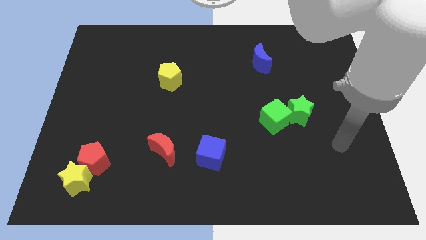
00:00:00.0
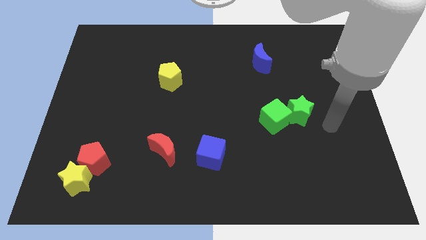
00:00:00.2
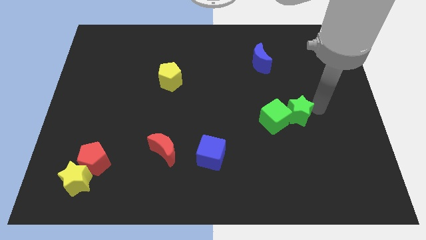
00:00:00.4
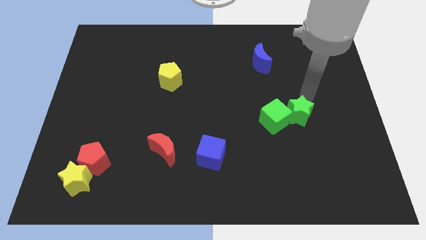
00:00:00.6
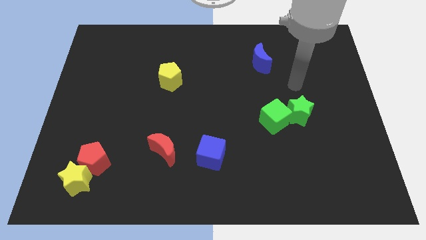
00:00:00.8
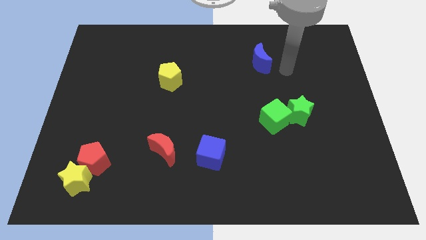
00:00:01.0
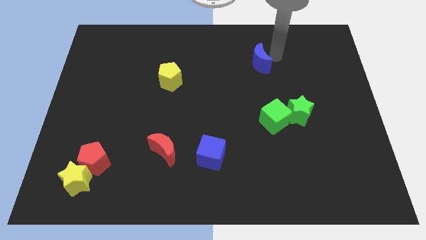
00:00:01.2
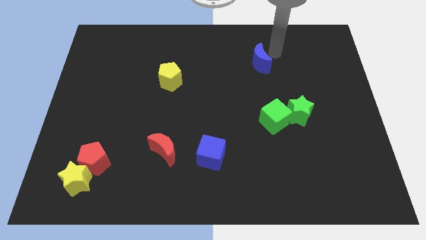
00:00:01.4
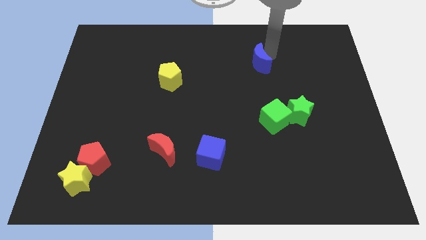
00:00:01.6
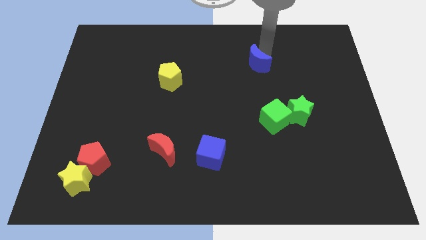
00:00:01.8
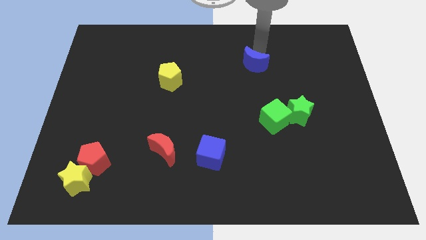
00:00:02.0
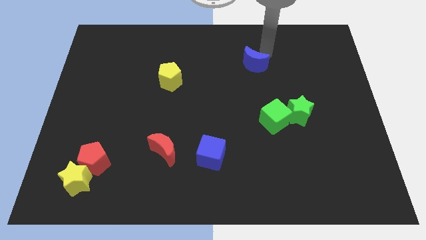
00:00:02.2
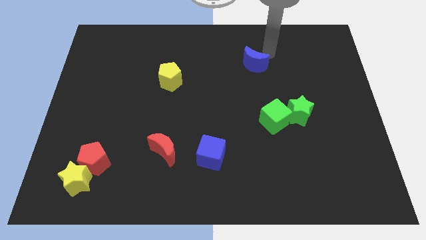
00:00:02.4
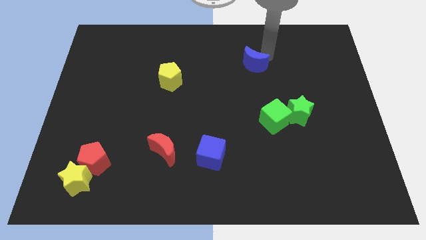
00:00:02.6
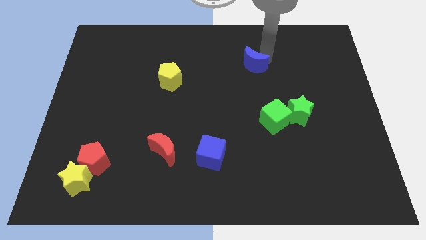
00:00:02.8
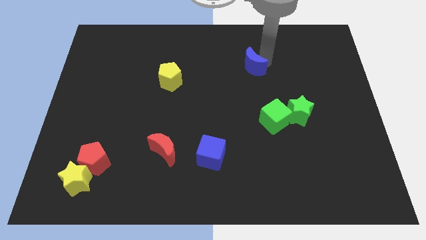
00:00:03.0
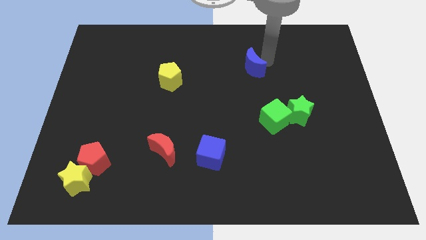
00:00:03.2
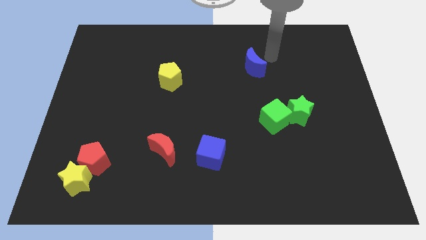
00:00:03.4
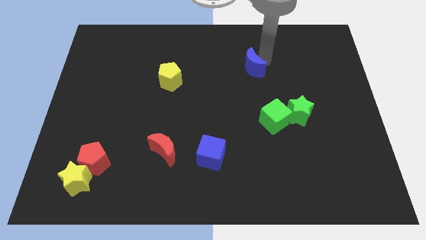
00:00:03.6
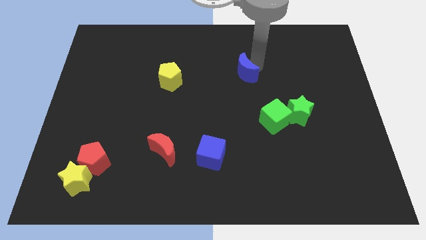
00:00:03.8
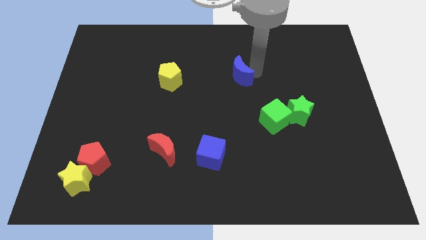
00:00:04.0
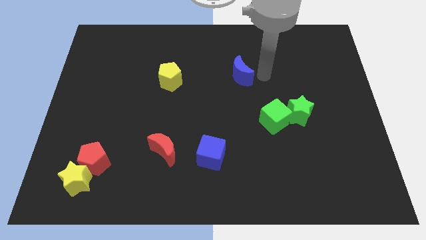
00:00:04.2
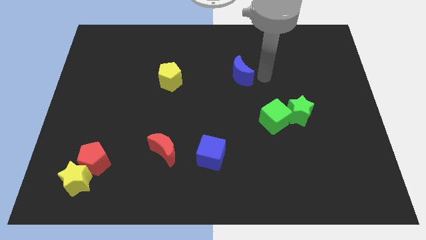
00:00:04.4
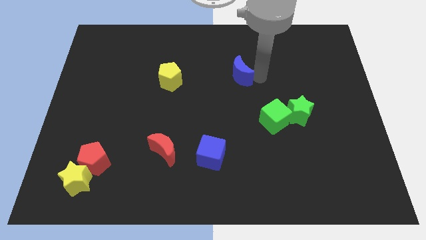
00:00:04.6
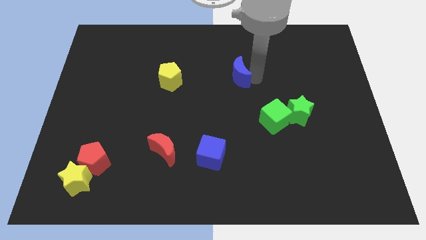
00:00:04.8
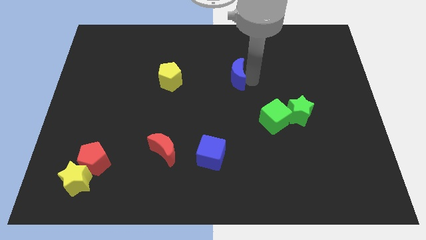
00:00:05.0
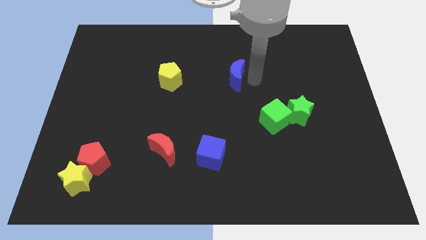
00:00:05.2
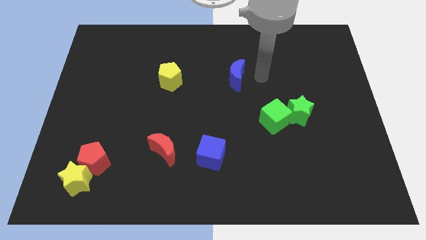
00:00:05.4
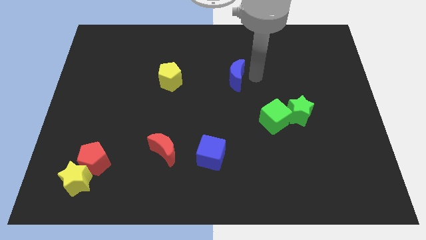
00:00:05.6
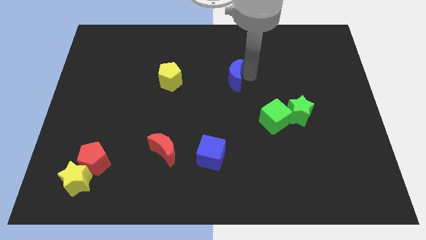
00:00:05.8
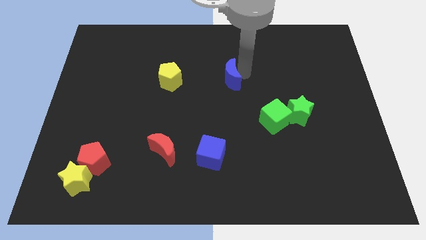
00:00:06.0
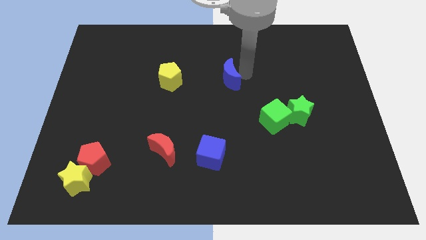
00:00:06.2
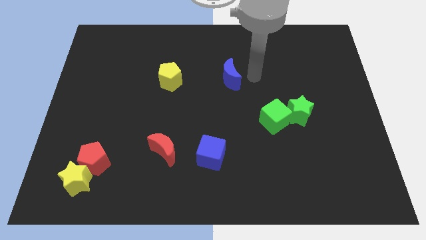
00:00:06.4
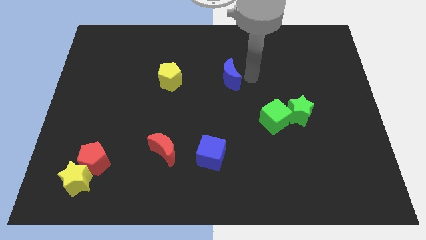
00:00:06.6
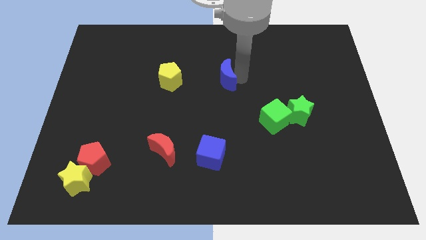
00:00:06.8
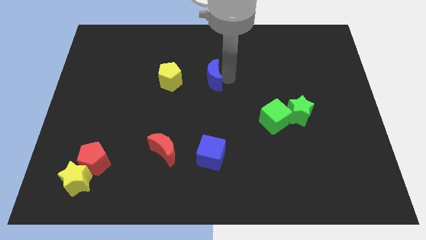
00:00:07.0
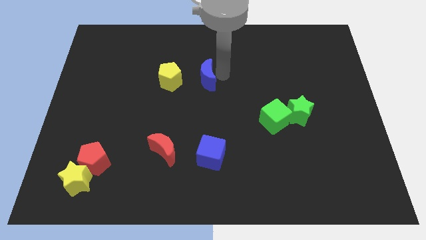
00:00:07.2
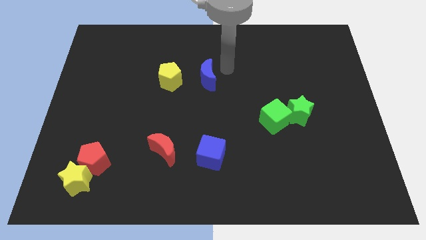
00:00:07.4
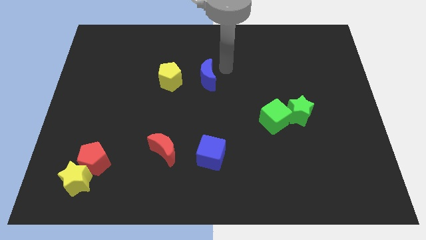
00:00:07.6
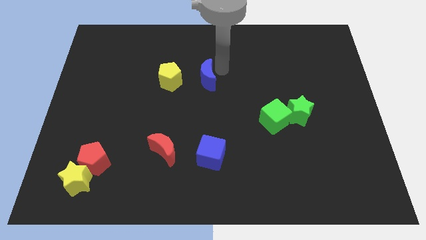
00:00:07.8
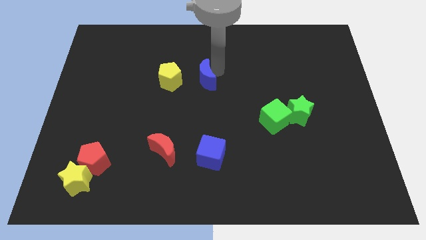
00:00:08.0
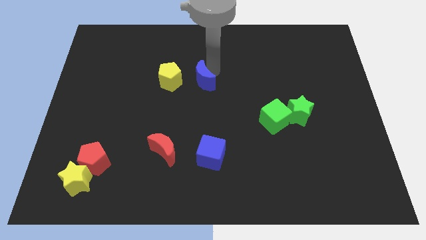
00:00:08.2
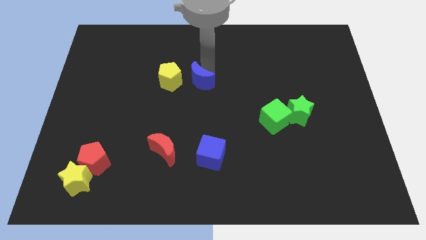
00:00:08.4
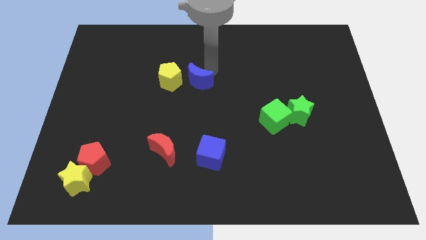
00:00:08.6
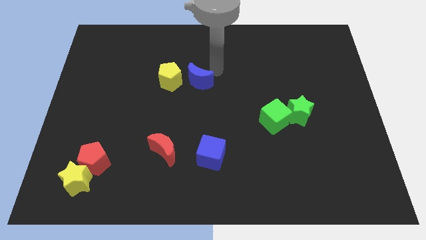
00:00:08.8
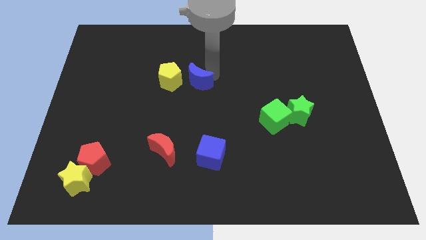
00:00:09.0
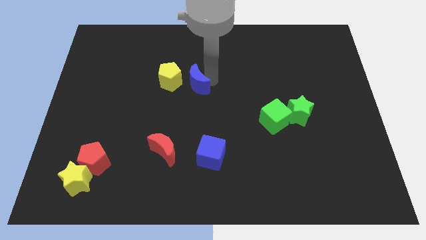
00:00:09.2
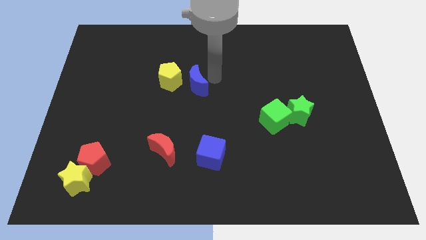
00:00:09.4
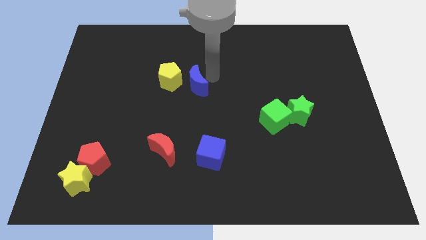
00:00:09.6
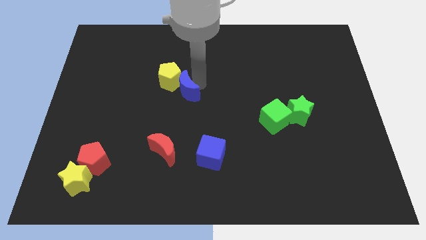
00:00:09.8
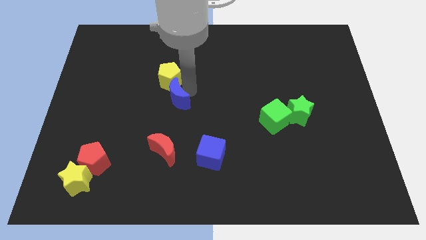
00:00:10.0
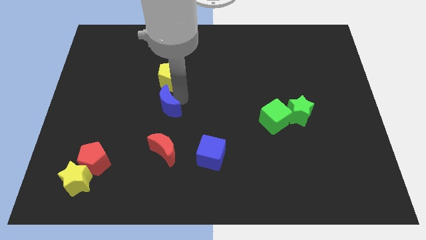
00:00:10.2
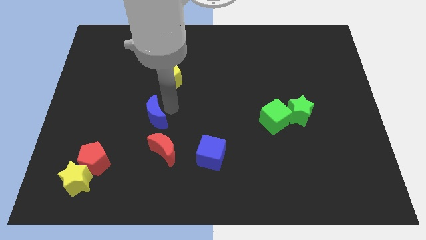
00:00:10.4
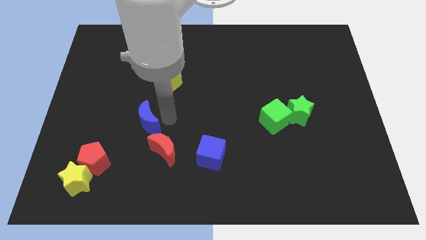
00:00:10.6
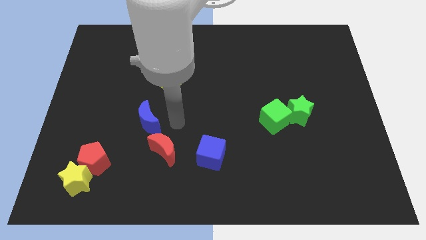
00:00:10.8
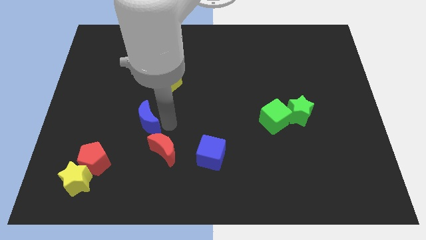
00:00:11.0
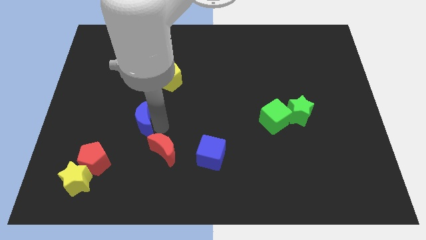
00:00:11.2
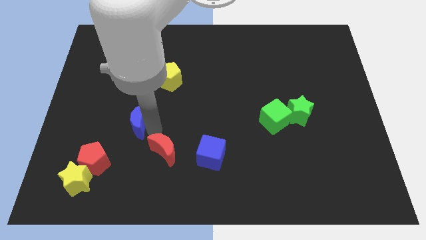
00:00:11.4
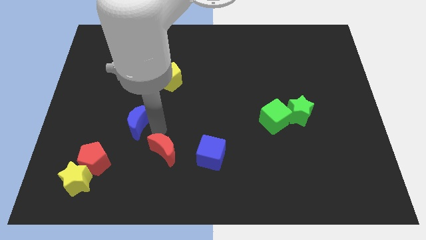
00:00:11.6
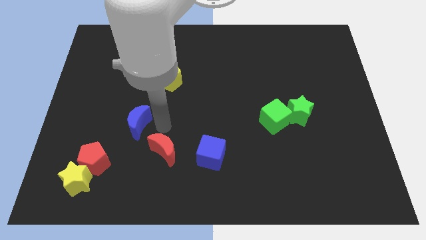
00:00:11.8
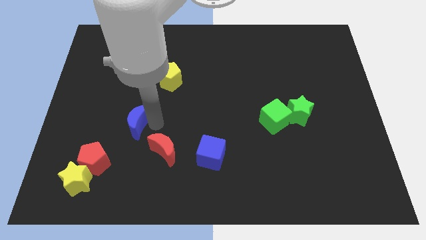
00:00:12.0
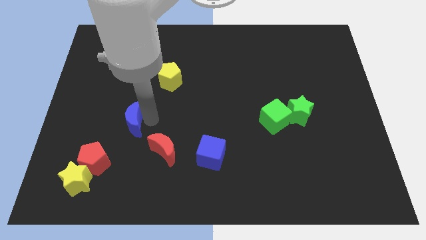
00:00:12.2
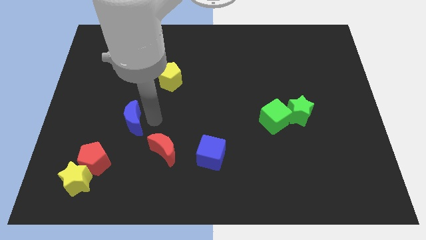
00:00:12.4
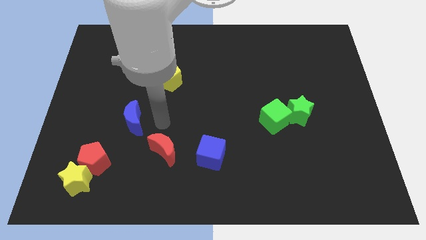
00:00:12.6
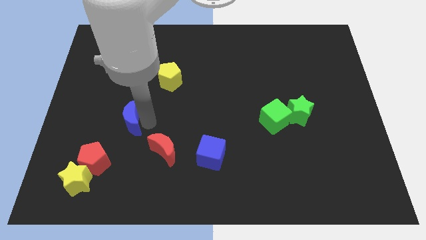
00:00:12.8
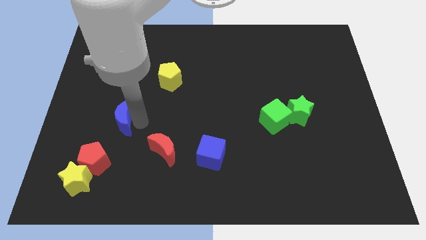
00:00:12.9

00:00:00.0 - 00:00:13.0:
put the blue moon to the top side of the red pentagon
